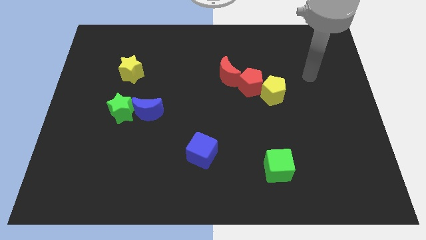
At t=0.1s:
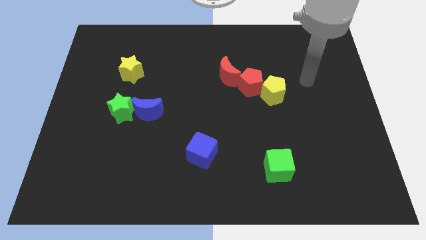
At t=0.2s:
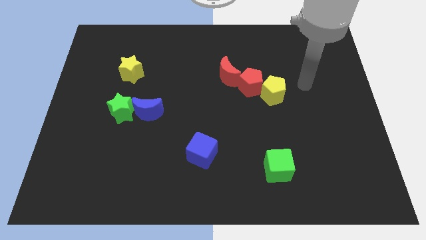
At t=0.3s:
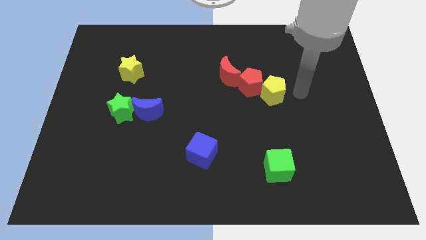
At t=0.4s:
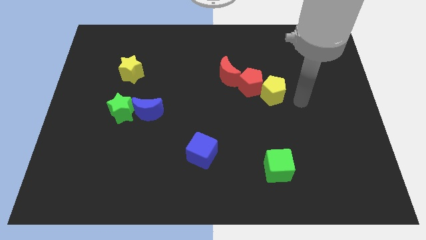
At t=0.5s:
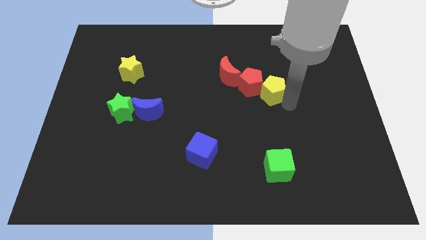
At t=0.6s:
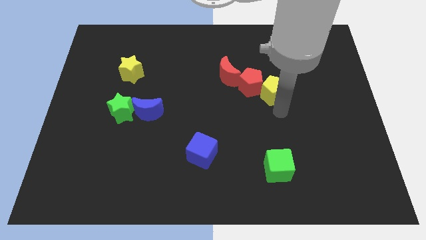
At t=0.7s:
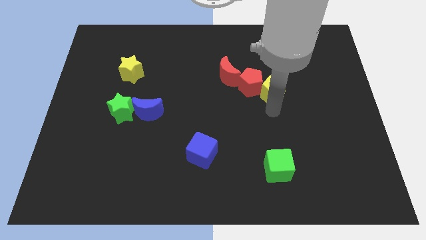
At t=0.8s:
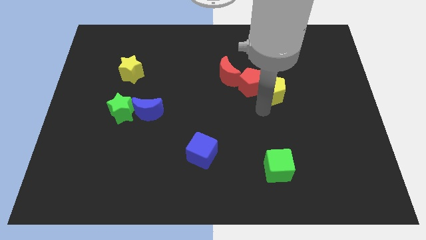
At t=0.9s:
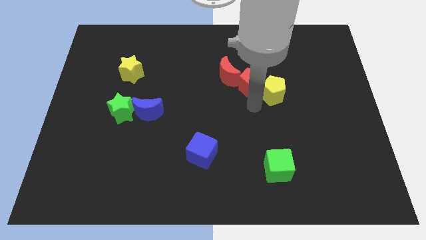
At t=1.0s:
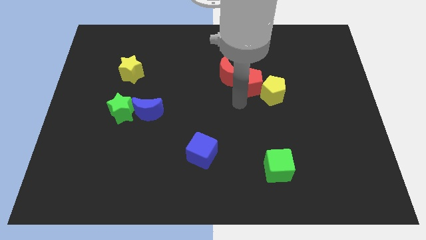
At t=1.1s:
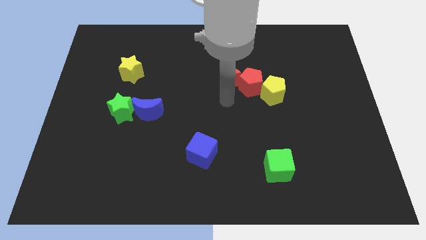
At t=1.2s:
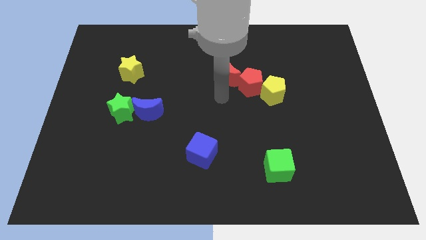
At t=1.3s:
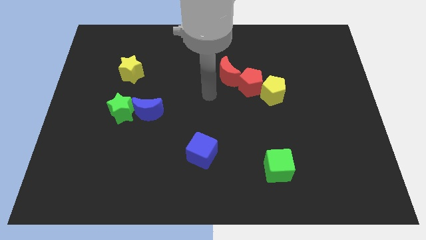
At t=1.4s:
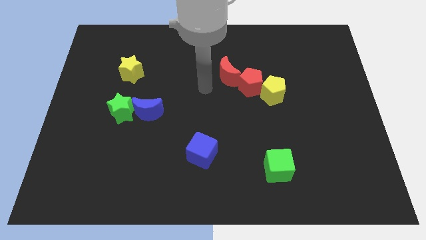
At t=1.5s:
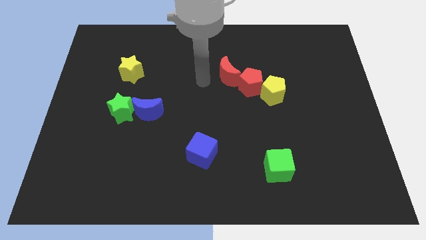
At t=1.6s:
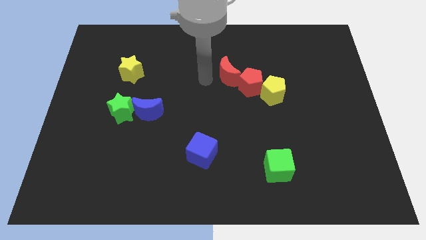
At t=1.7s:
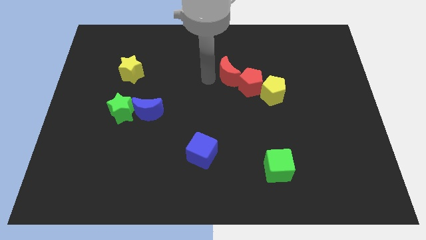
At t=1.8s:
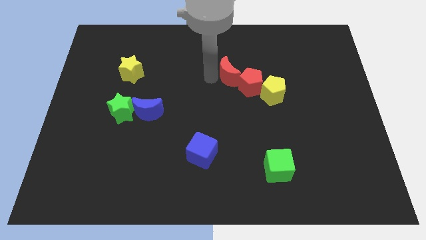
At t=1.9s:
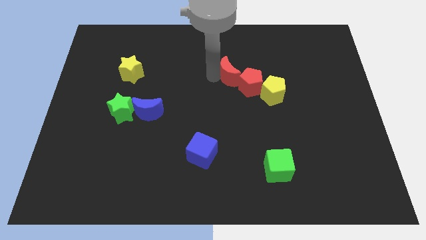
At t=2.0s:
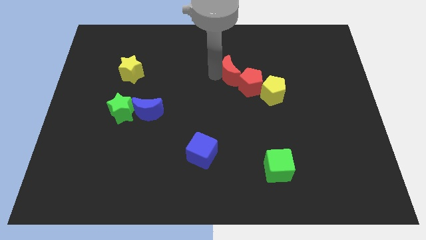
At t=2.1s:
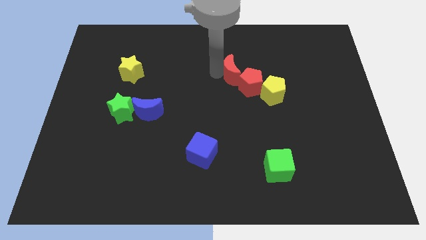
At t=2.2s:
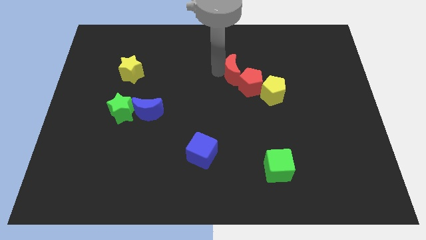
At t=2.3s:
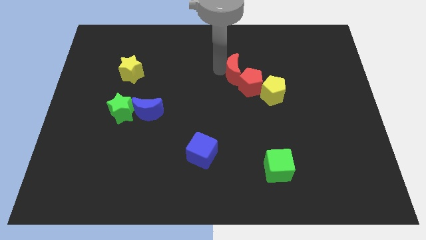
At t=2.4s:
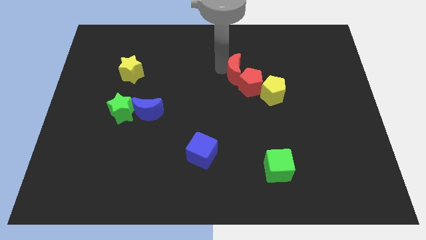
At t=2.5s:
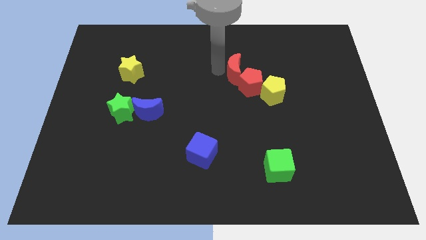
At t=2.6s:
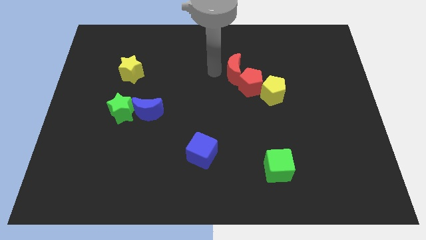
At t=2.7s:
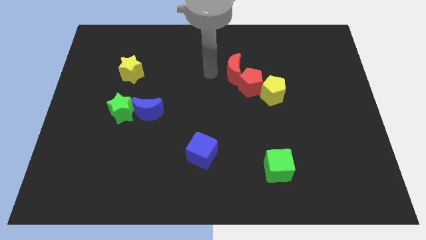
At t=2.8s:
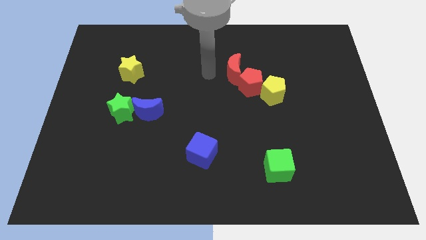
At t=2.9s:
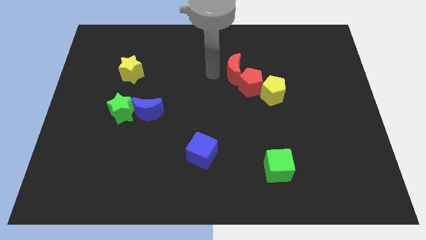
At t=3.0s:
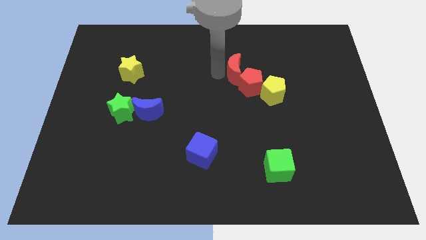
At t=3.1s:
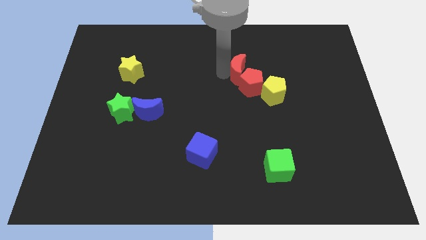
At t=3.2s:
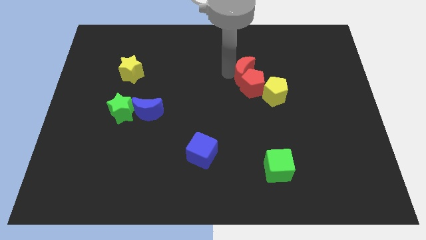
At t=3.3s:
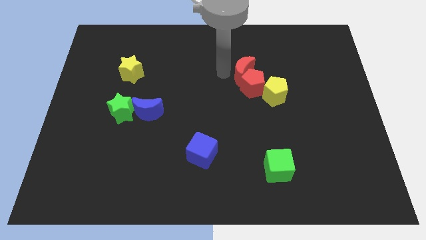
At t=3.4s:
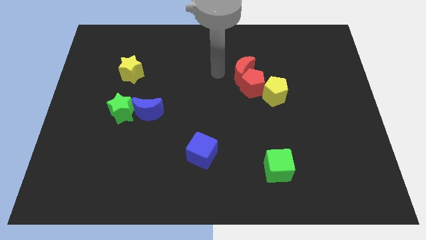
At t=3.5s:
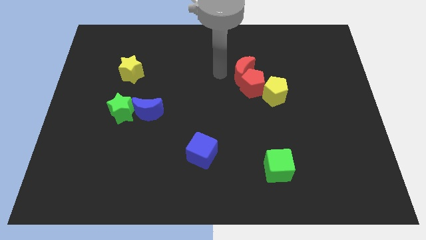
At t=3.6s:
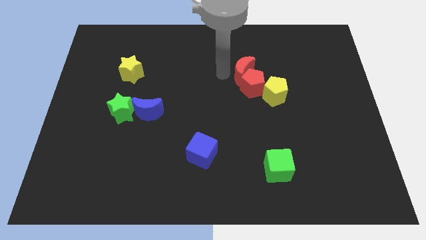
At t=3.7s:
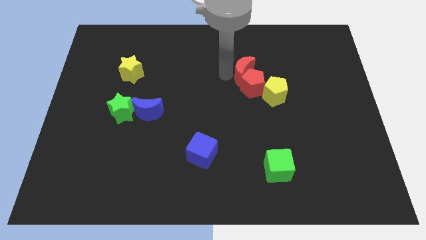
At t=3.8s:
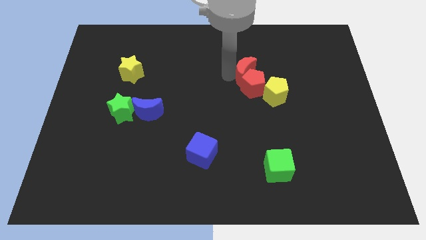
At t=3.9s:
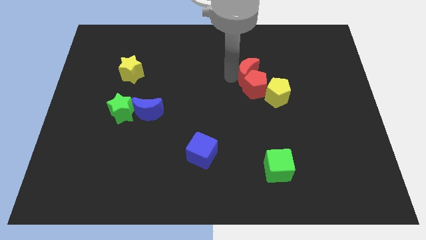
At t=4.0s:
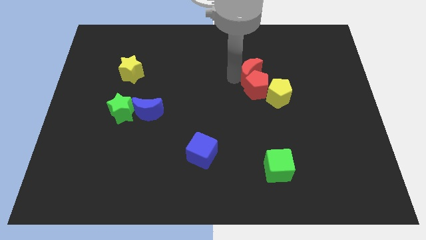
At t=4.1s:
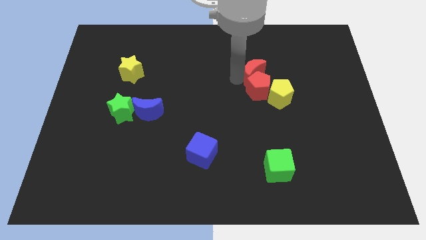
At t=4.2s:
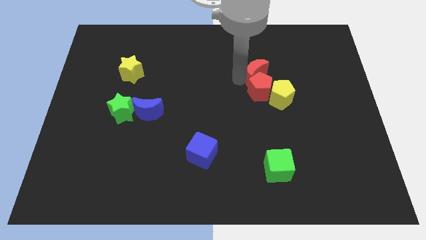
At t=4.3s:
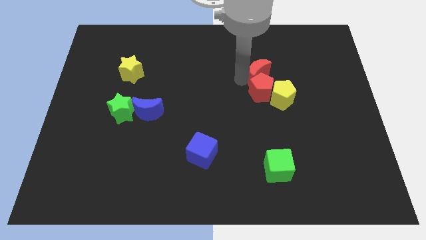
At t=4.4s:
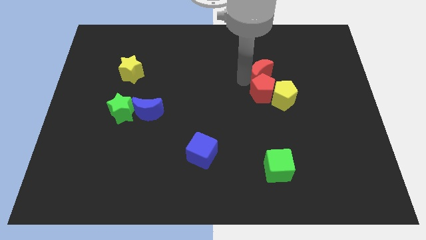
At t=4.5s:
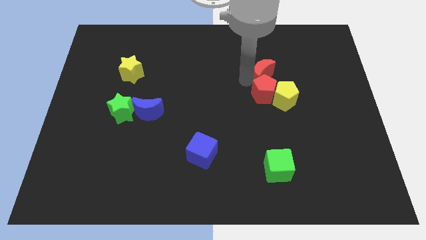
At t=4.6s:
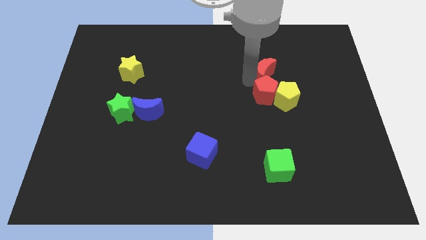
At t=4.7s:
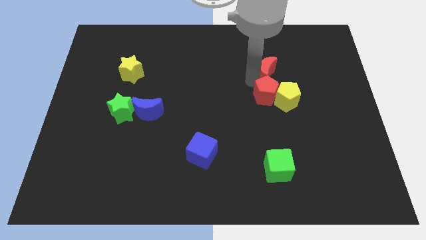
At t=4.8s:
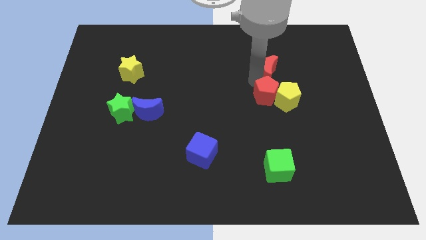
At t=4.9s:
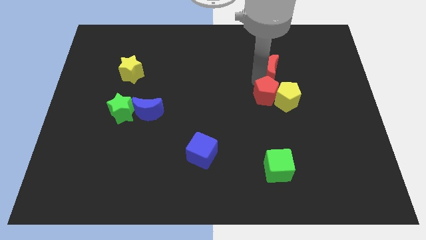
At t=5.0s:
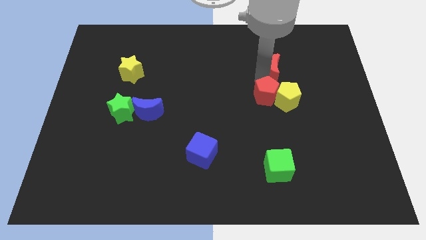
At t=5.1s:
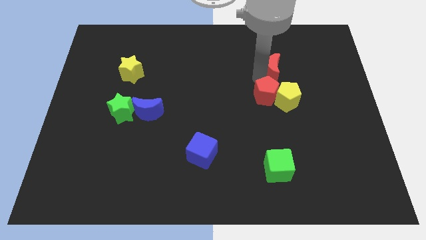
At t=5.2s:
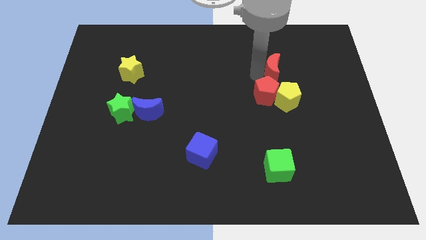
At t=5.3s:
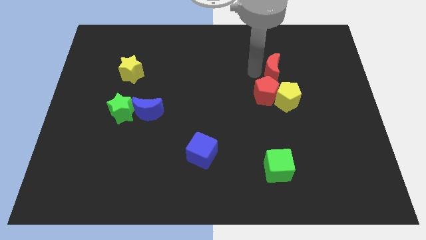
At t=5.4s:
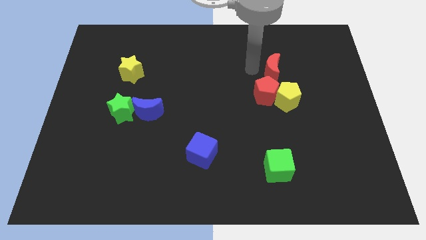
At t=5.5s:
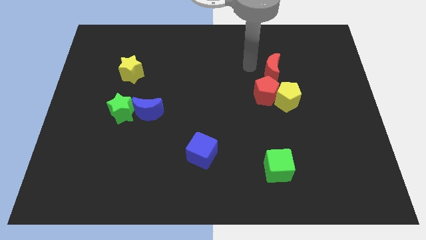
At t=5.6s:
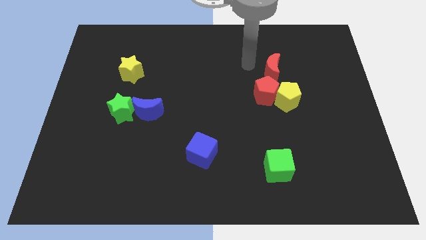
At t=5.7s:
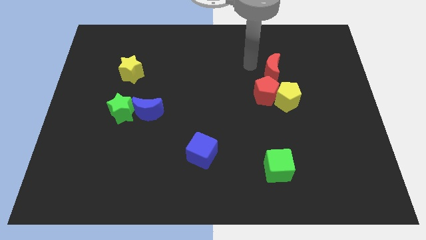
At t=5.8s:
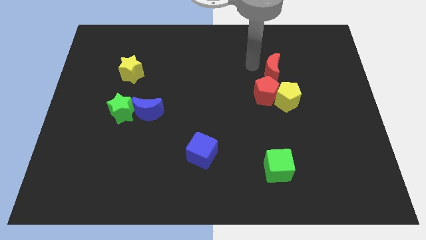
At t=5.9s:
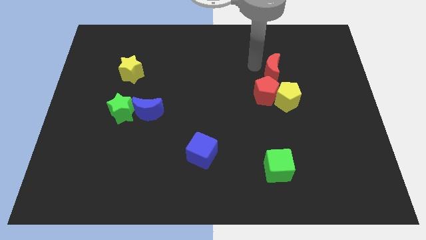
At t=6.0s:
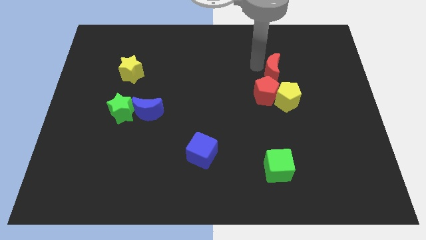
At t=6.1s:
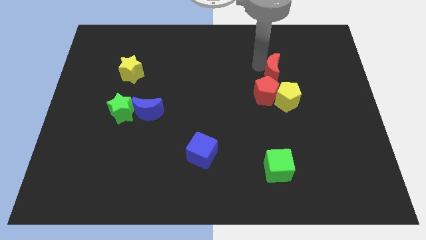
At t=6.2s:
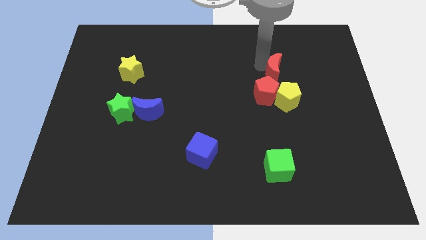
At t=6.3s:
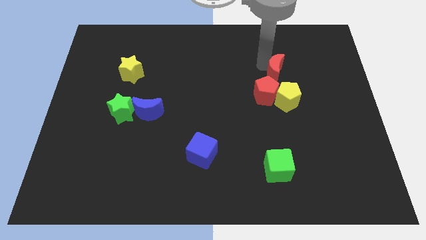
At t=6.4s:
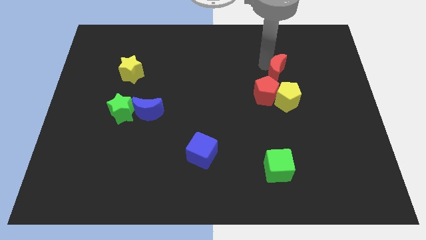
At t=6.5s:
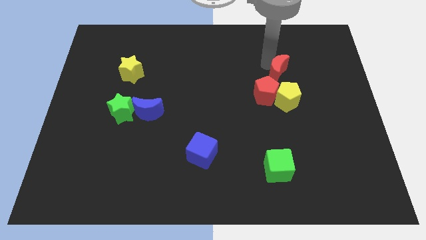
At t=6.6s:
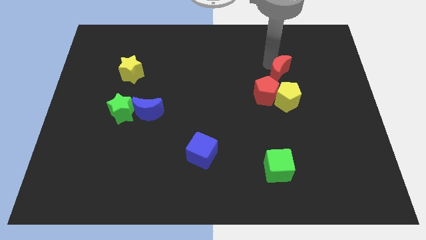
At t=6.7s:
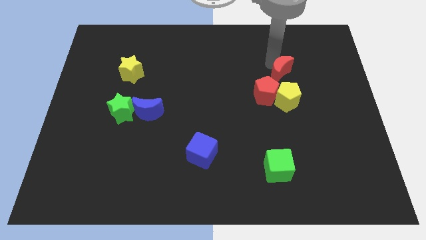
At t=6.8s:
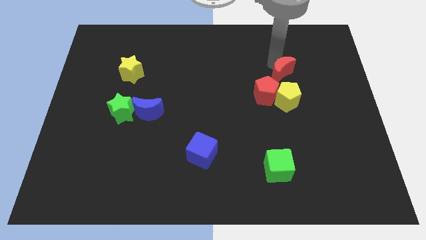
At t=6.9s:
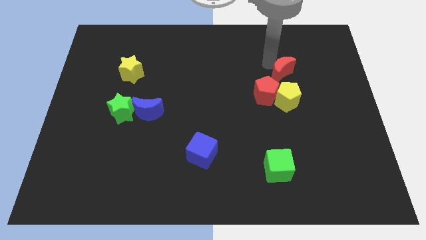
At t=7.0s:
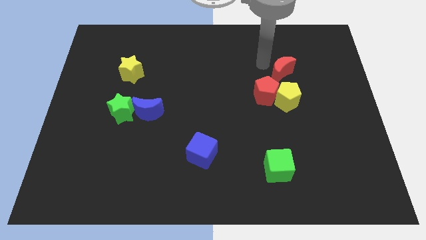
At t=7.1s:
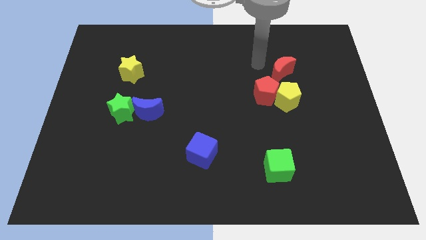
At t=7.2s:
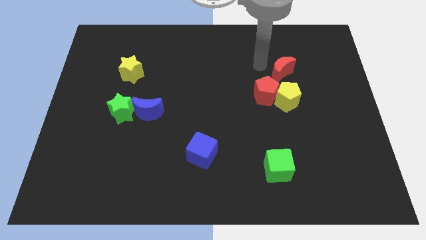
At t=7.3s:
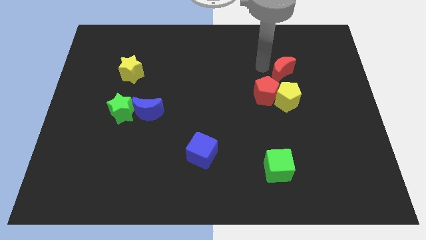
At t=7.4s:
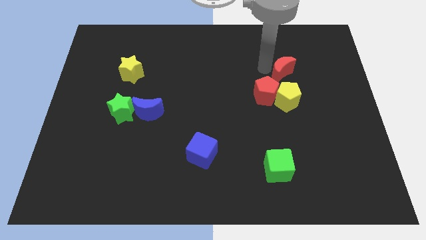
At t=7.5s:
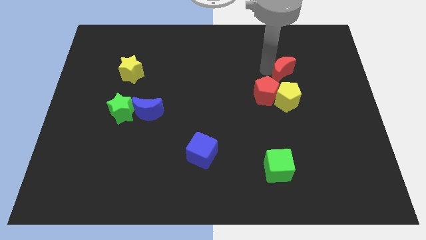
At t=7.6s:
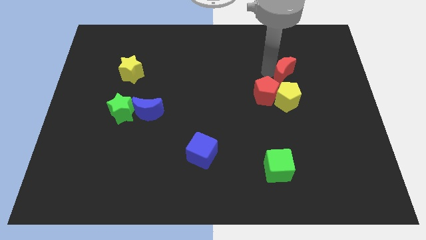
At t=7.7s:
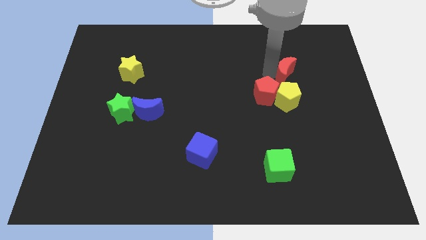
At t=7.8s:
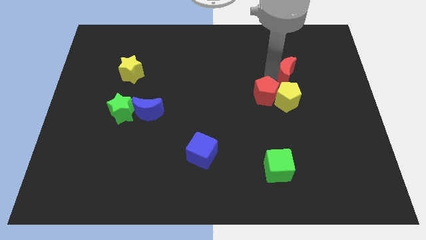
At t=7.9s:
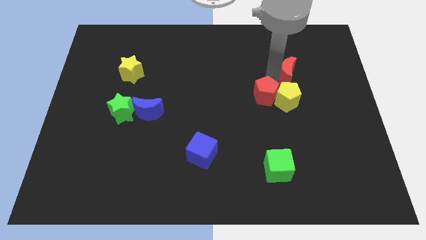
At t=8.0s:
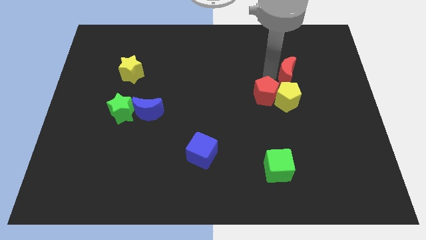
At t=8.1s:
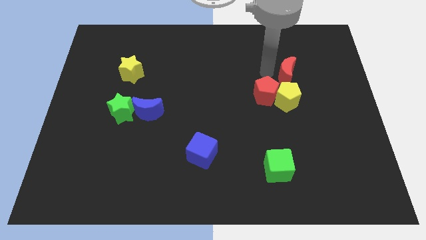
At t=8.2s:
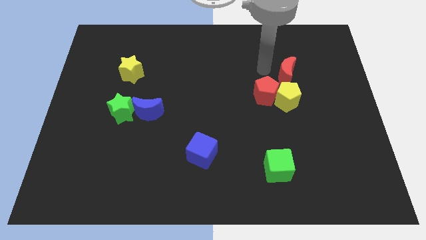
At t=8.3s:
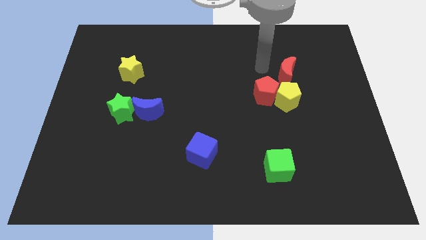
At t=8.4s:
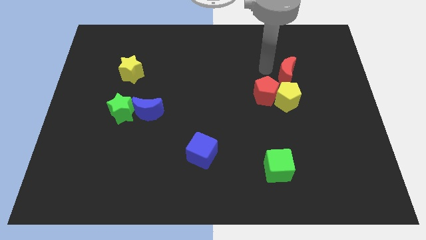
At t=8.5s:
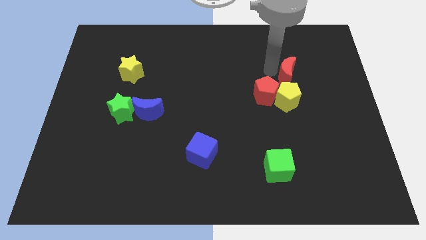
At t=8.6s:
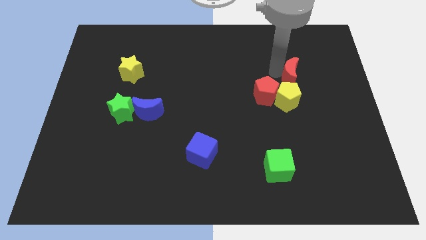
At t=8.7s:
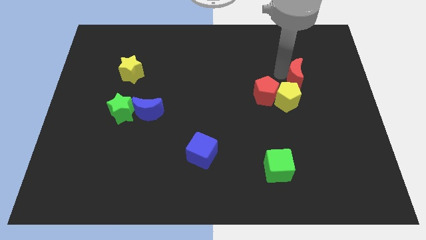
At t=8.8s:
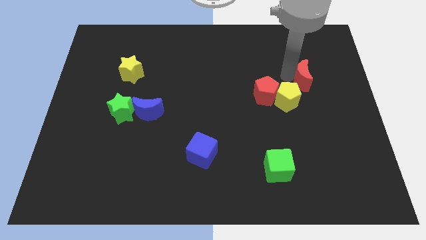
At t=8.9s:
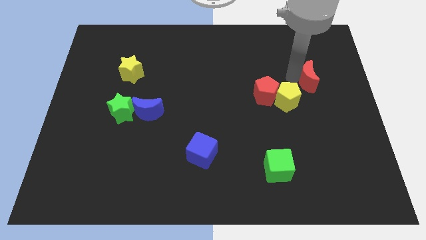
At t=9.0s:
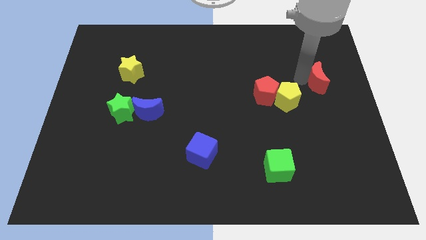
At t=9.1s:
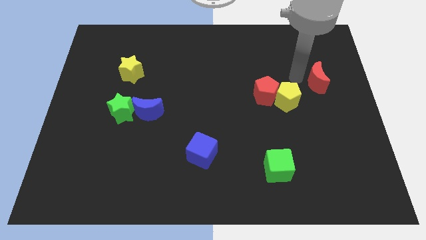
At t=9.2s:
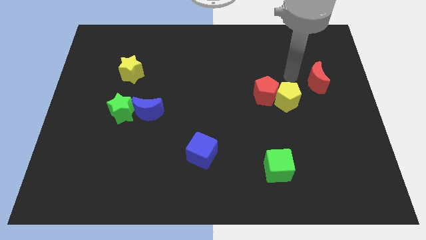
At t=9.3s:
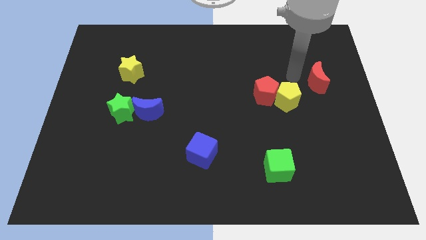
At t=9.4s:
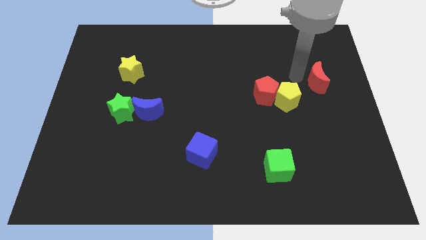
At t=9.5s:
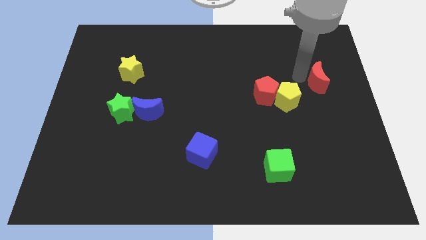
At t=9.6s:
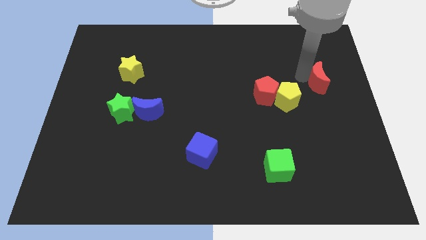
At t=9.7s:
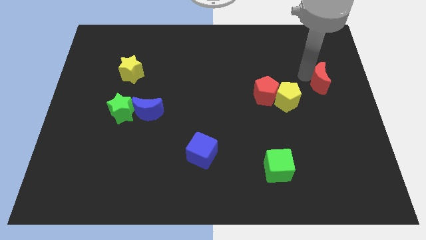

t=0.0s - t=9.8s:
push the red moon to the center right
